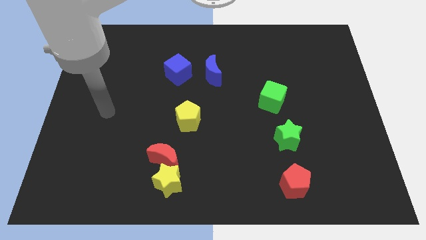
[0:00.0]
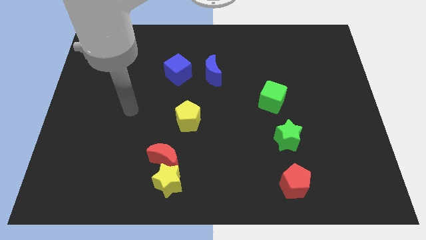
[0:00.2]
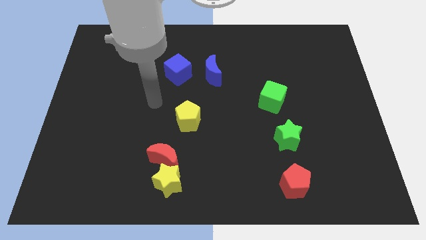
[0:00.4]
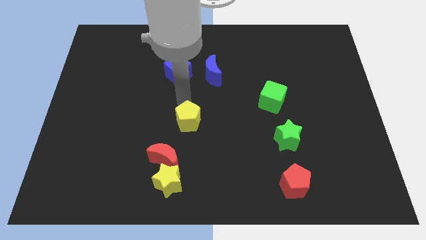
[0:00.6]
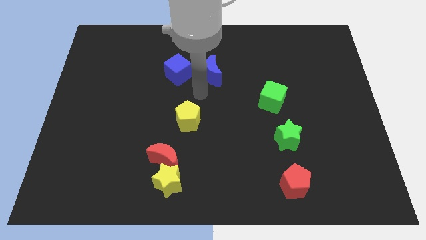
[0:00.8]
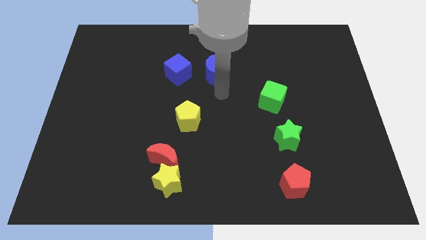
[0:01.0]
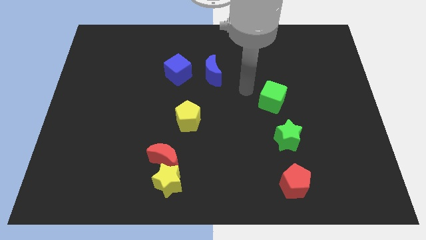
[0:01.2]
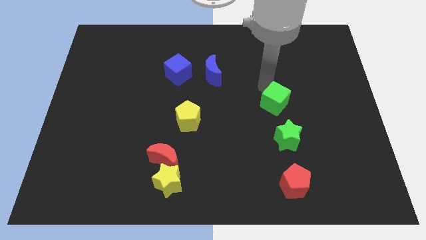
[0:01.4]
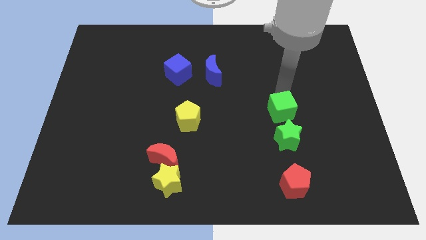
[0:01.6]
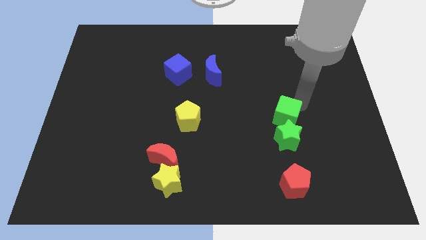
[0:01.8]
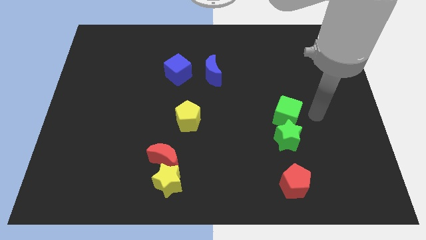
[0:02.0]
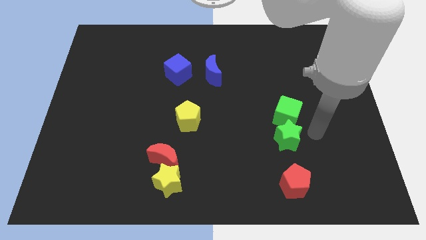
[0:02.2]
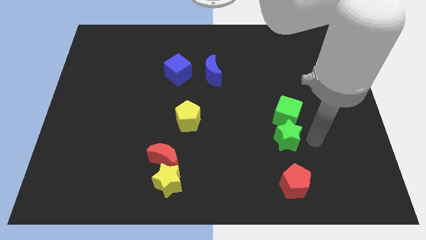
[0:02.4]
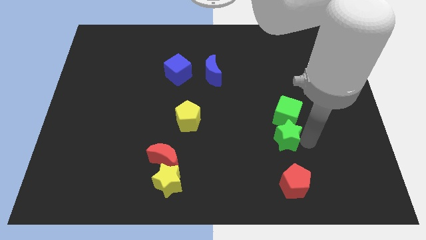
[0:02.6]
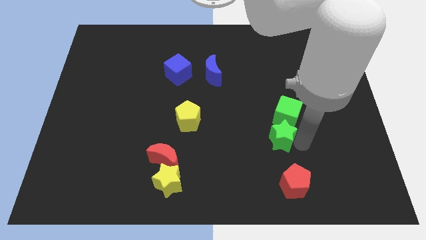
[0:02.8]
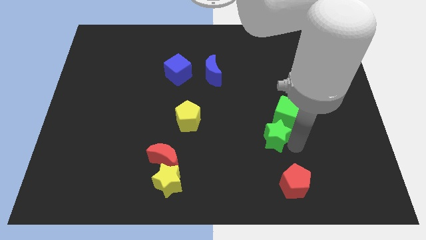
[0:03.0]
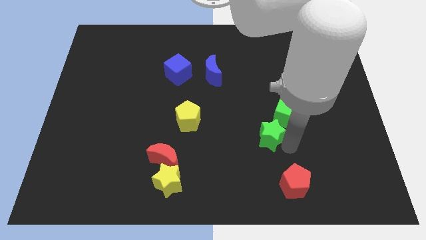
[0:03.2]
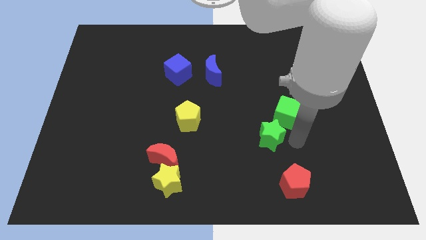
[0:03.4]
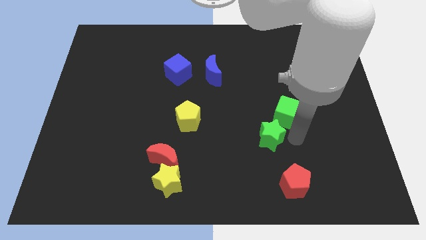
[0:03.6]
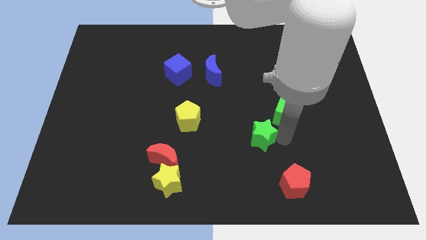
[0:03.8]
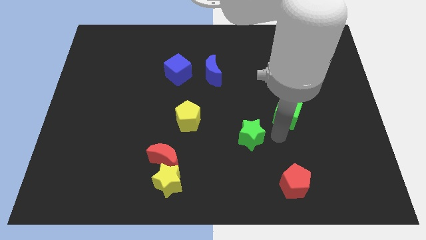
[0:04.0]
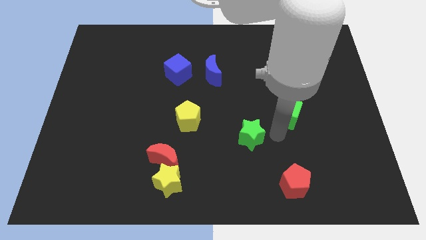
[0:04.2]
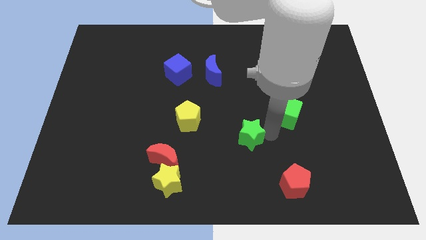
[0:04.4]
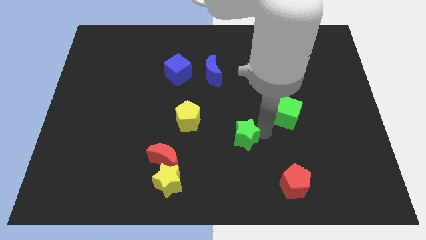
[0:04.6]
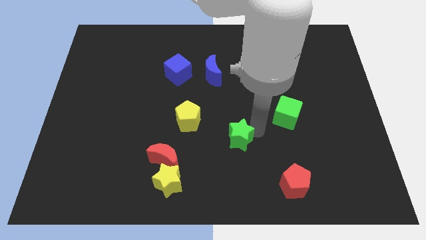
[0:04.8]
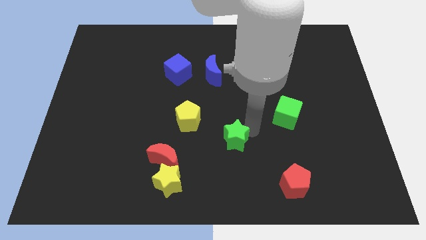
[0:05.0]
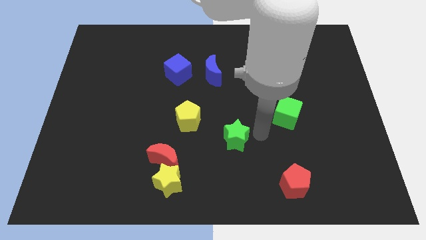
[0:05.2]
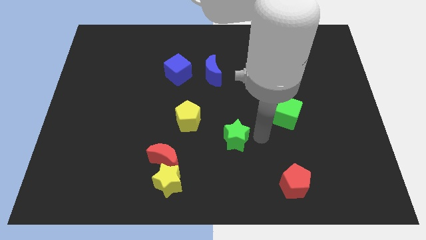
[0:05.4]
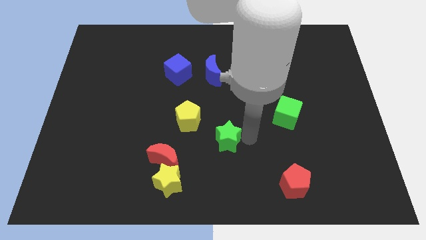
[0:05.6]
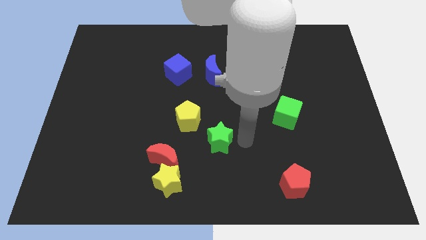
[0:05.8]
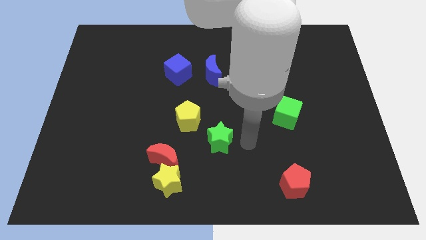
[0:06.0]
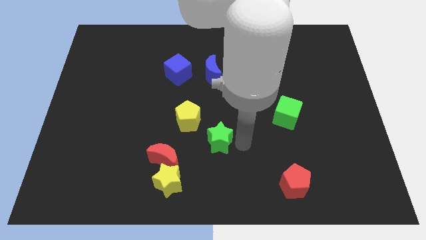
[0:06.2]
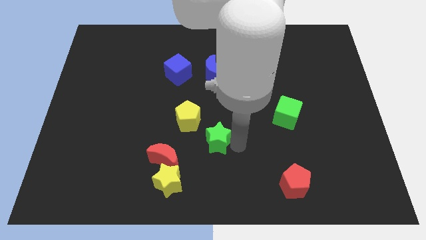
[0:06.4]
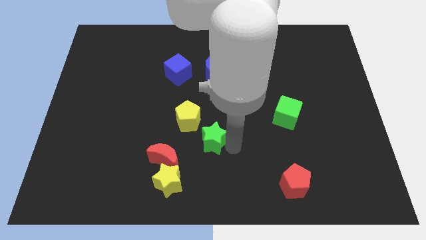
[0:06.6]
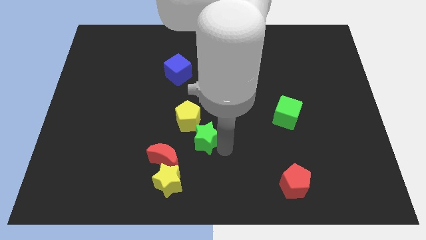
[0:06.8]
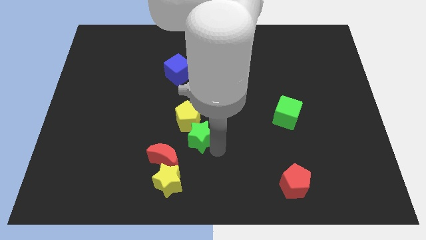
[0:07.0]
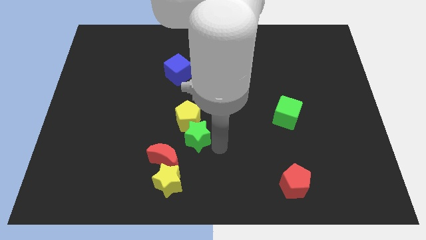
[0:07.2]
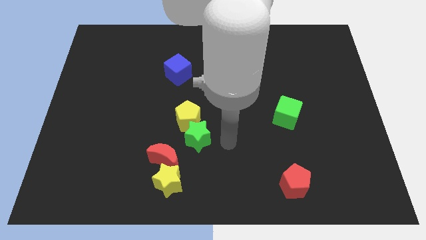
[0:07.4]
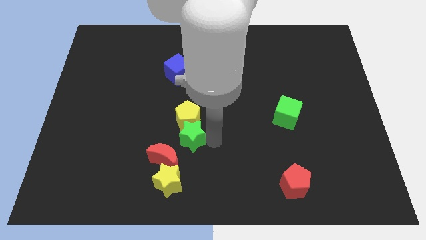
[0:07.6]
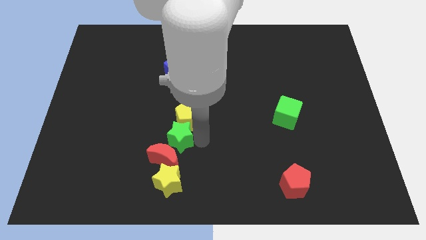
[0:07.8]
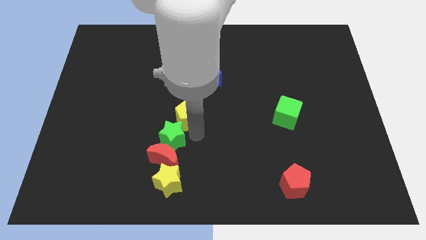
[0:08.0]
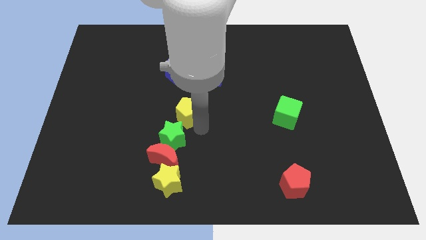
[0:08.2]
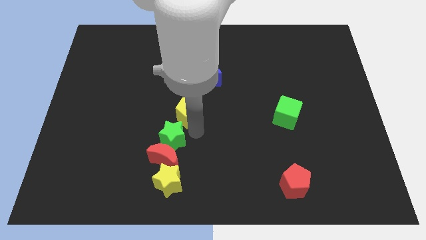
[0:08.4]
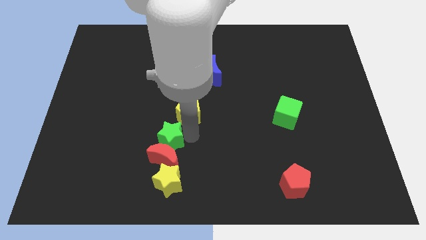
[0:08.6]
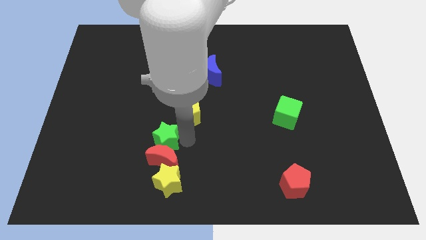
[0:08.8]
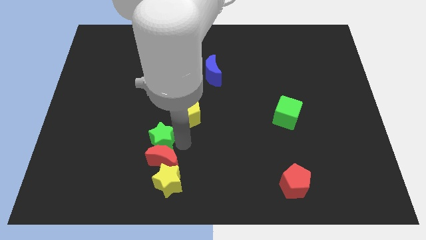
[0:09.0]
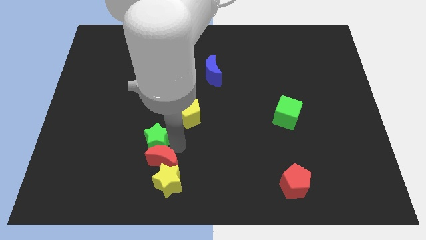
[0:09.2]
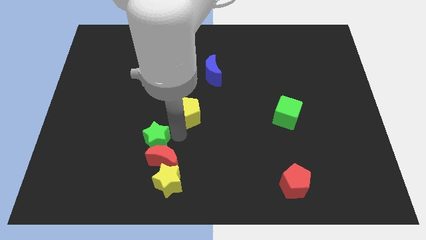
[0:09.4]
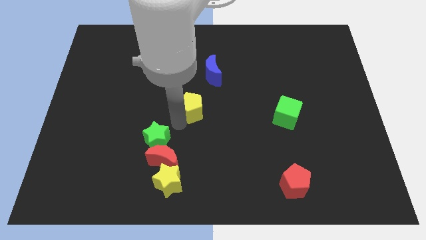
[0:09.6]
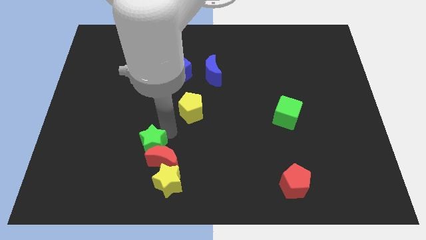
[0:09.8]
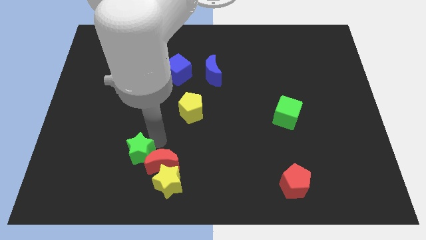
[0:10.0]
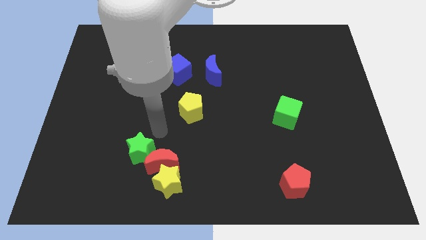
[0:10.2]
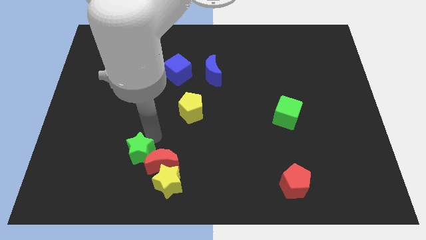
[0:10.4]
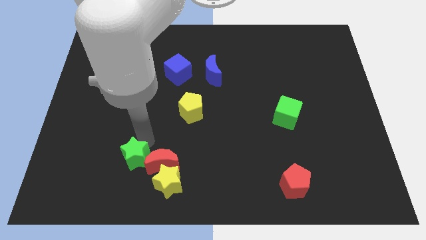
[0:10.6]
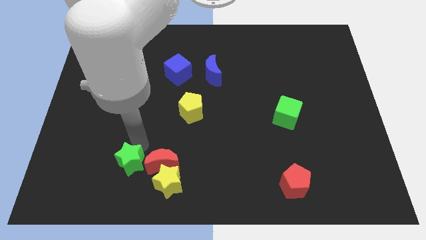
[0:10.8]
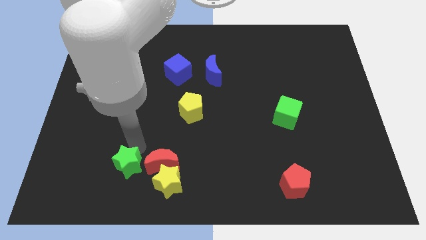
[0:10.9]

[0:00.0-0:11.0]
push the green star to the left of the yellow star

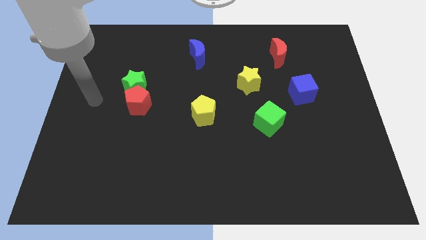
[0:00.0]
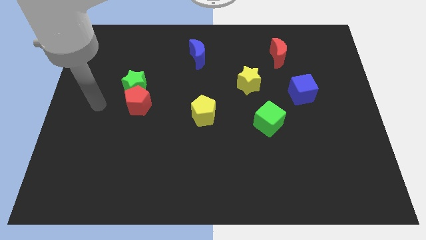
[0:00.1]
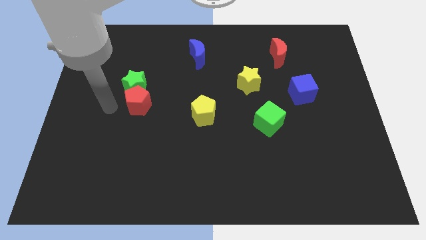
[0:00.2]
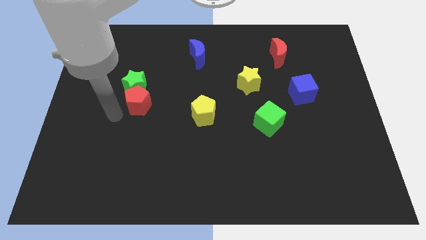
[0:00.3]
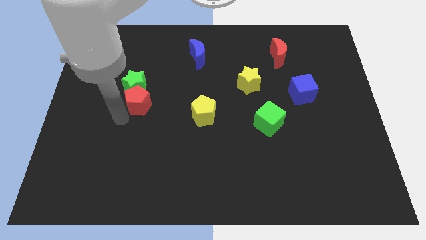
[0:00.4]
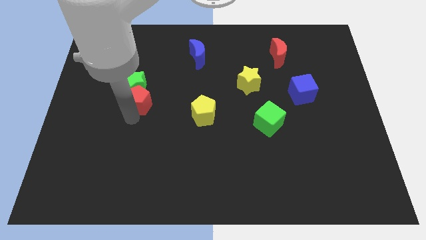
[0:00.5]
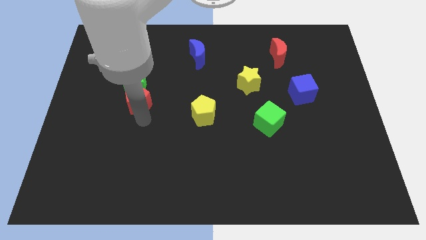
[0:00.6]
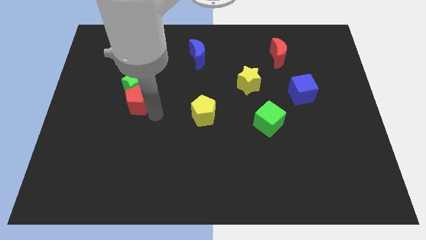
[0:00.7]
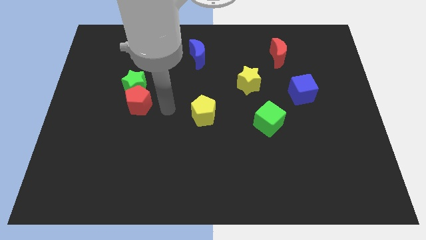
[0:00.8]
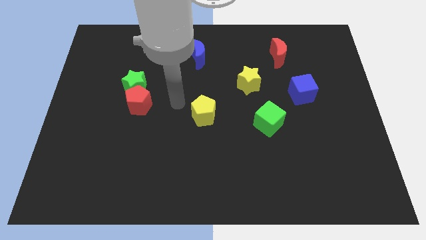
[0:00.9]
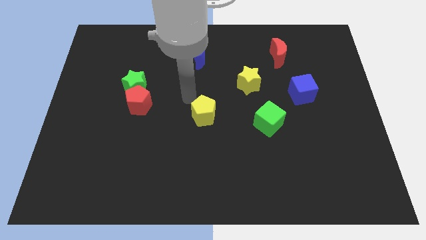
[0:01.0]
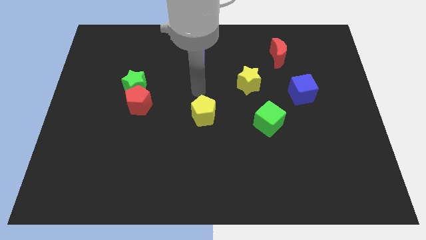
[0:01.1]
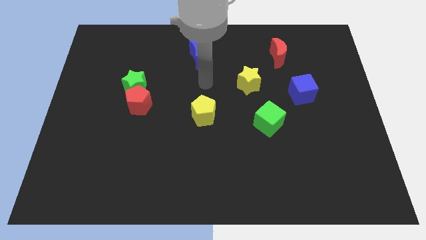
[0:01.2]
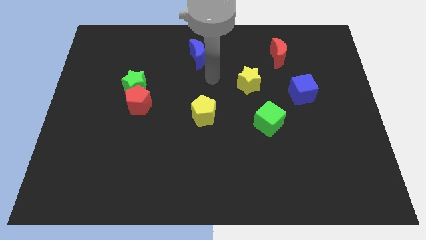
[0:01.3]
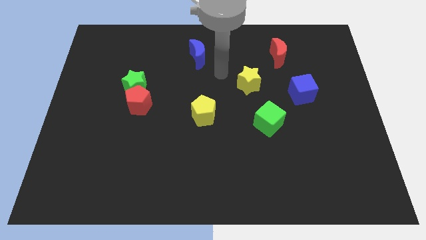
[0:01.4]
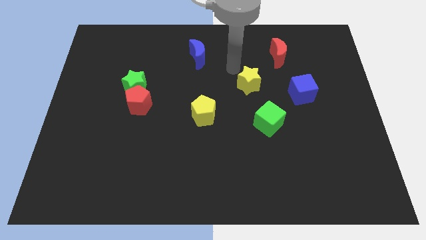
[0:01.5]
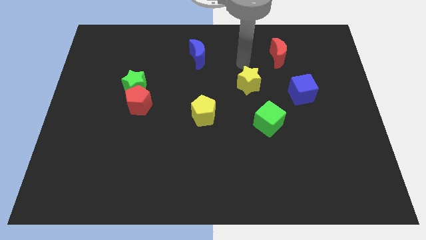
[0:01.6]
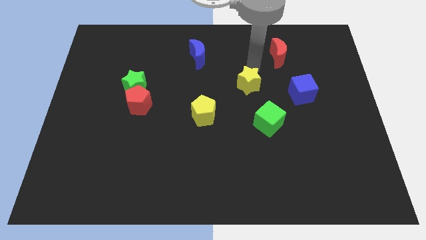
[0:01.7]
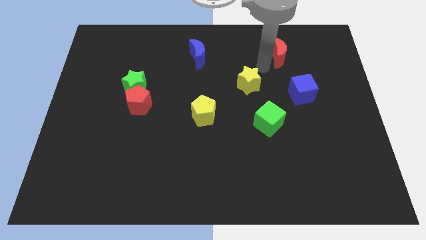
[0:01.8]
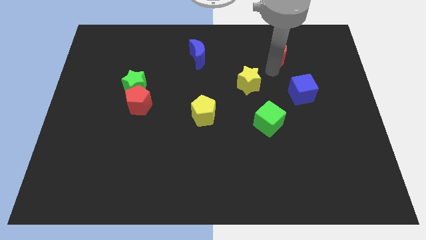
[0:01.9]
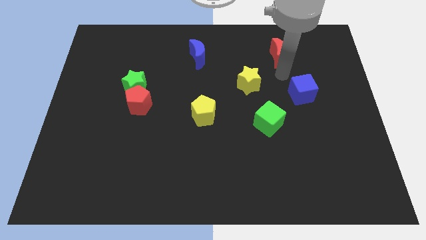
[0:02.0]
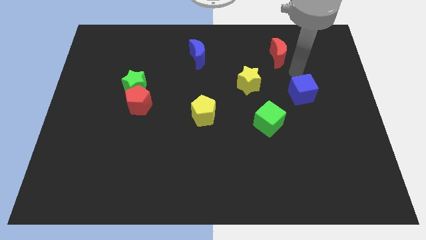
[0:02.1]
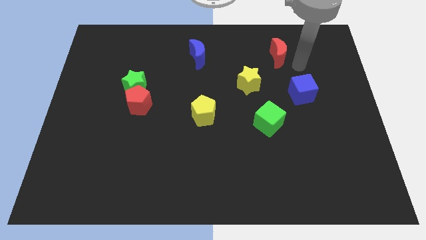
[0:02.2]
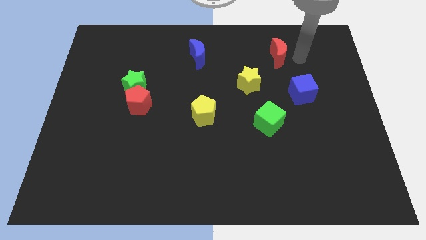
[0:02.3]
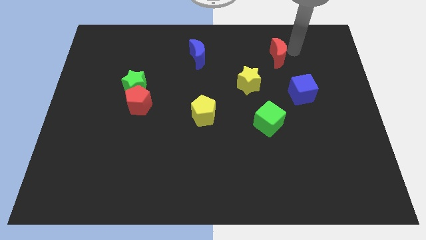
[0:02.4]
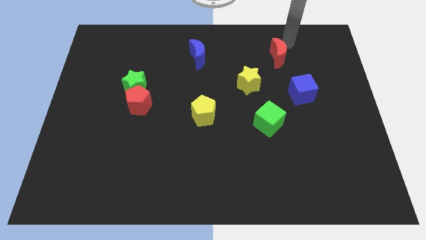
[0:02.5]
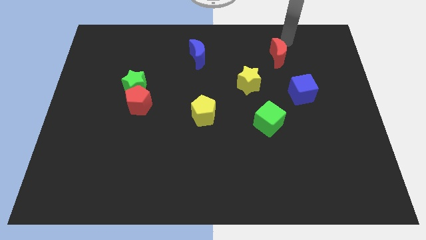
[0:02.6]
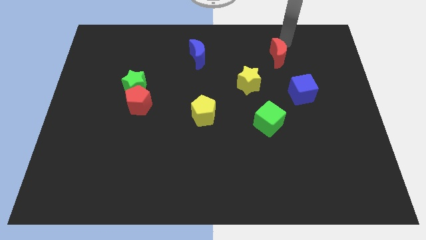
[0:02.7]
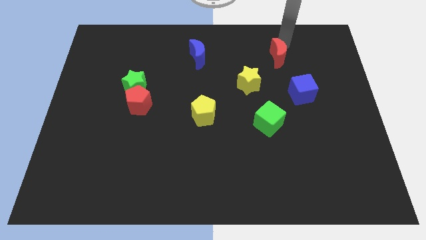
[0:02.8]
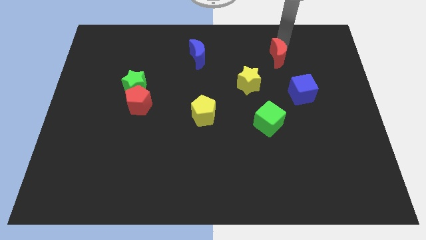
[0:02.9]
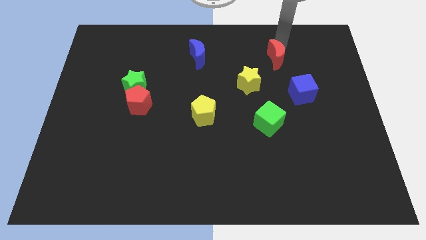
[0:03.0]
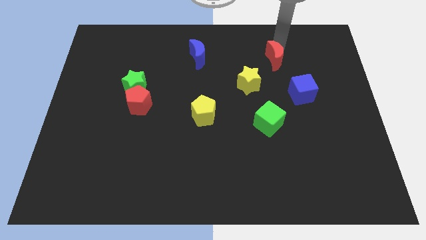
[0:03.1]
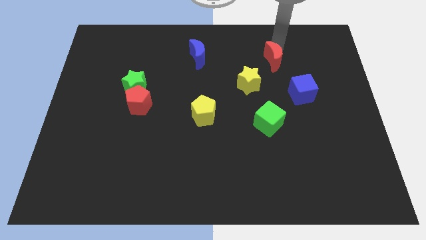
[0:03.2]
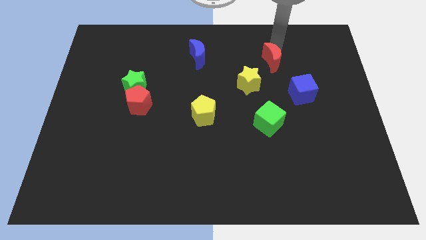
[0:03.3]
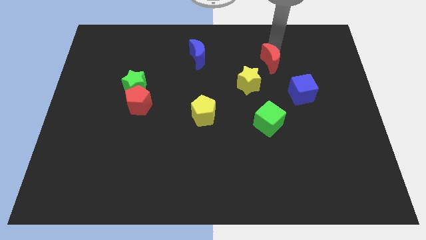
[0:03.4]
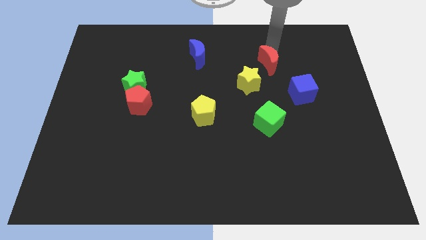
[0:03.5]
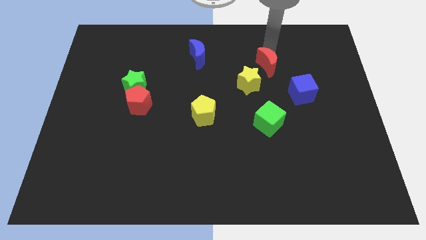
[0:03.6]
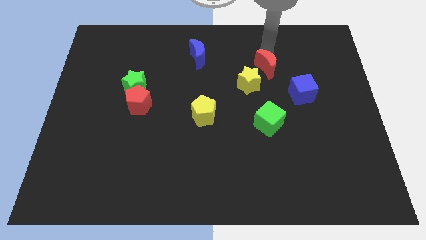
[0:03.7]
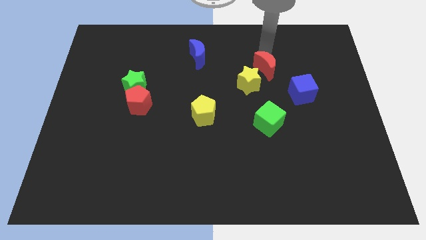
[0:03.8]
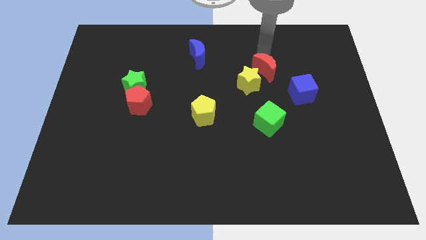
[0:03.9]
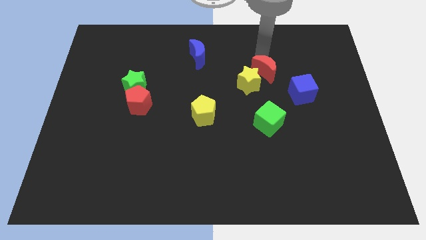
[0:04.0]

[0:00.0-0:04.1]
slide the red moon to the top side of the green cube
